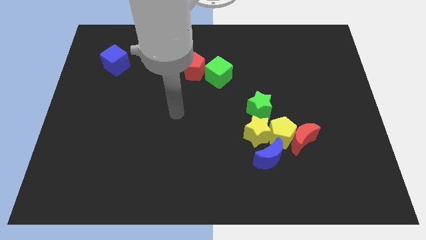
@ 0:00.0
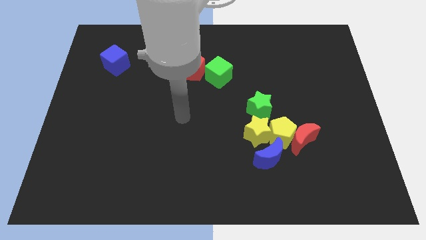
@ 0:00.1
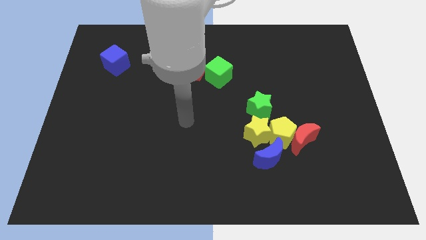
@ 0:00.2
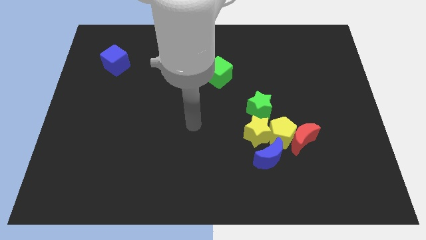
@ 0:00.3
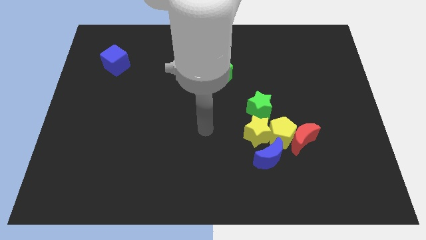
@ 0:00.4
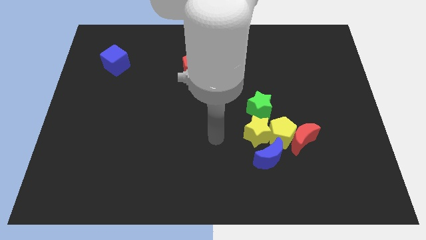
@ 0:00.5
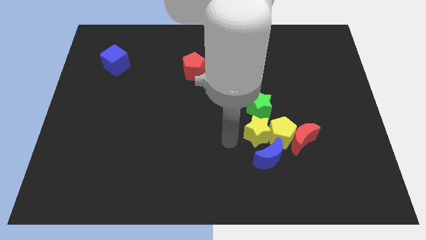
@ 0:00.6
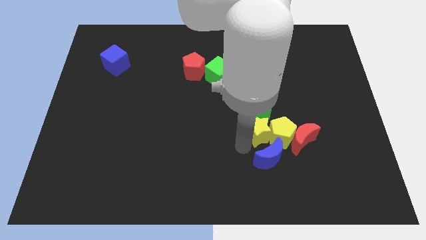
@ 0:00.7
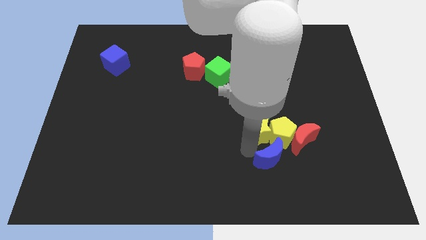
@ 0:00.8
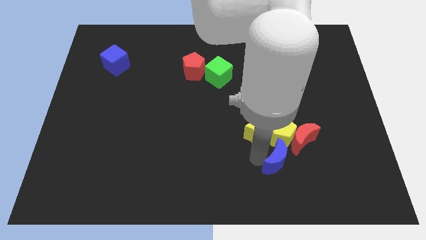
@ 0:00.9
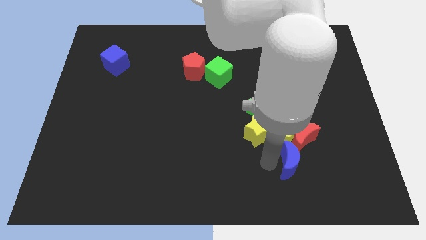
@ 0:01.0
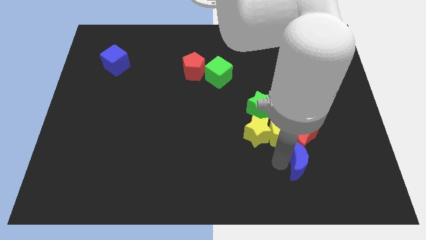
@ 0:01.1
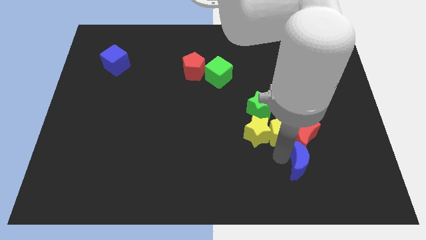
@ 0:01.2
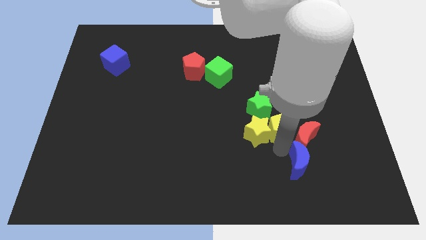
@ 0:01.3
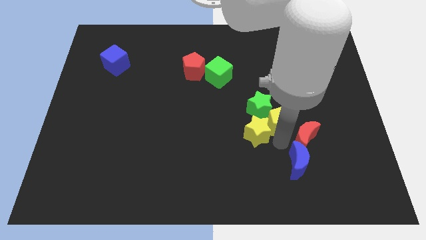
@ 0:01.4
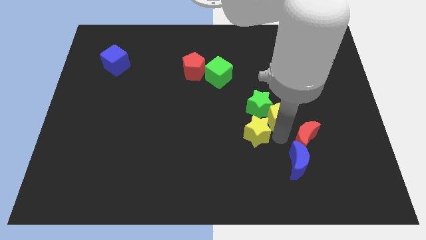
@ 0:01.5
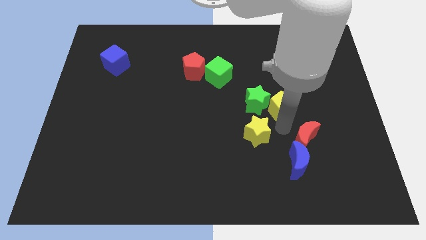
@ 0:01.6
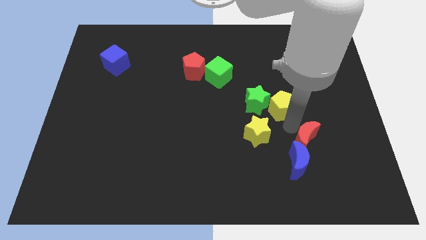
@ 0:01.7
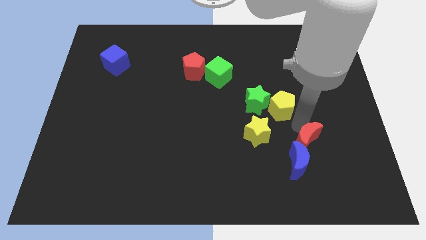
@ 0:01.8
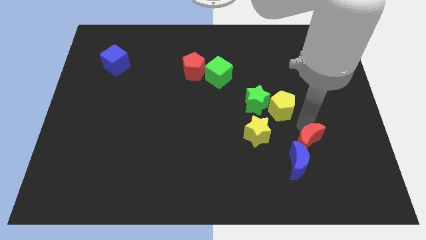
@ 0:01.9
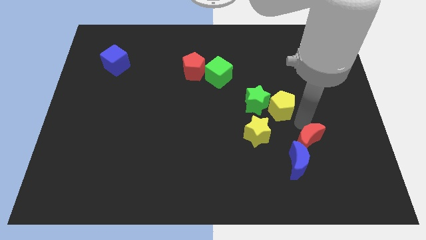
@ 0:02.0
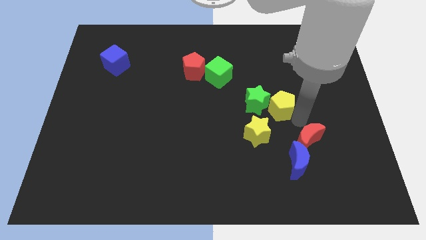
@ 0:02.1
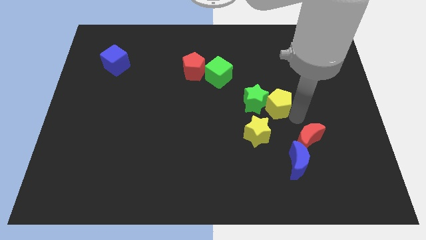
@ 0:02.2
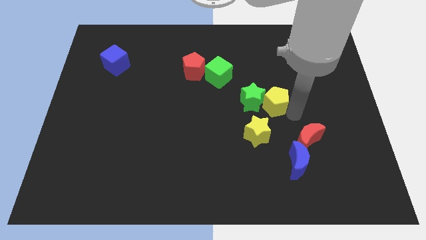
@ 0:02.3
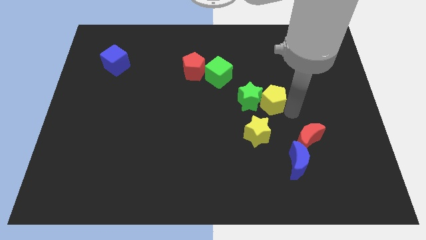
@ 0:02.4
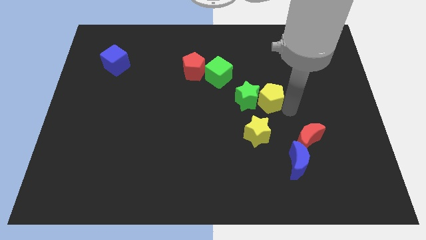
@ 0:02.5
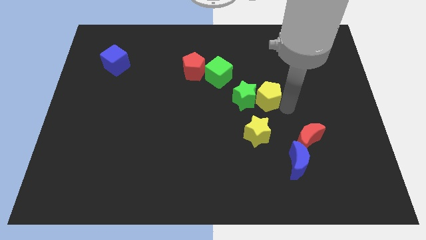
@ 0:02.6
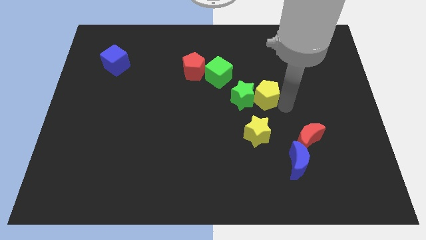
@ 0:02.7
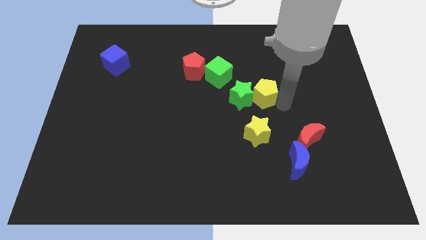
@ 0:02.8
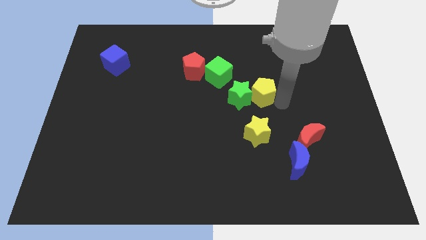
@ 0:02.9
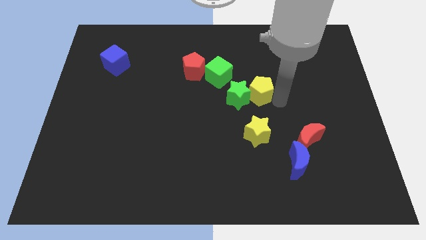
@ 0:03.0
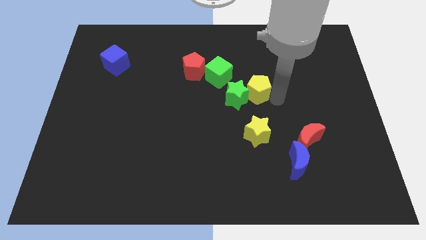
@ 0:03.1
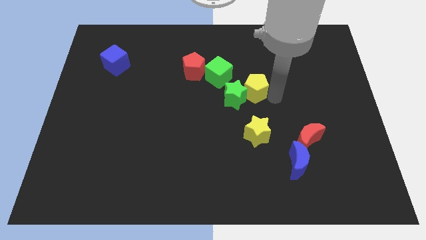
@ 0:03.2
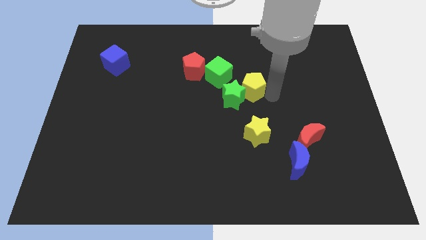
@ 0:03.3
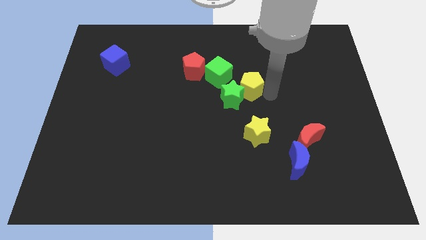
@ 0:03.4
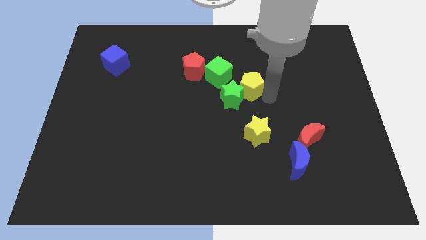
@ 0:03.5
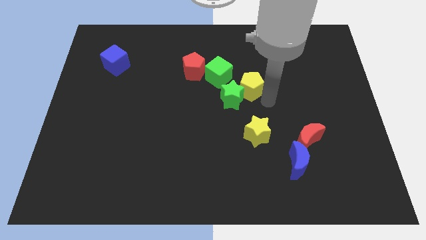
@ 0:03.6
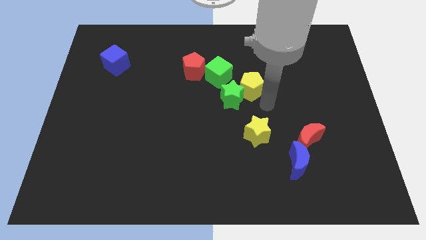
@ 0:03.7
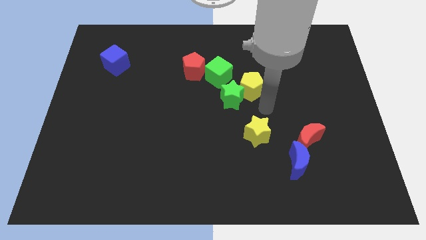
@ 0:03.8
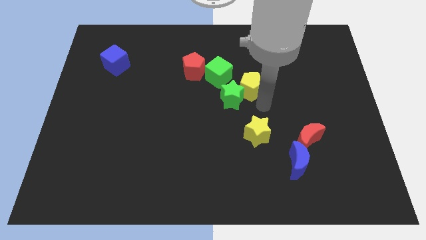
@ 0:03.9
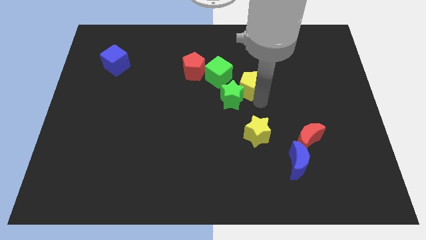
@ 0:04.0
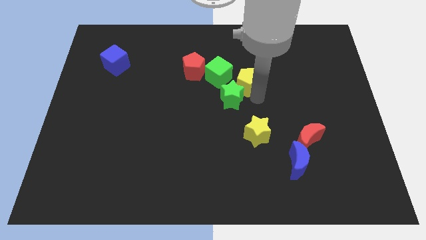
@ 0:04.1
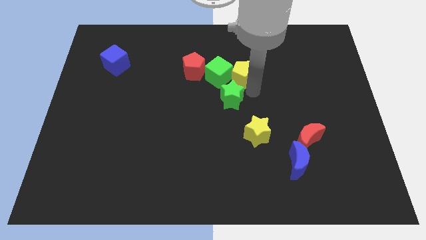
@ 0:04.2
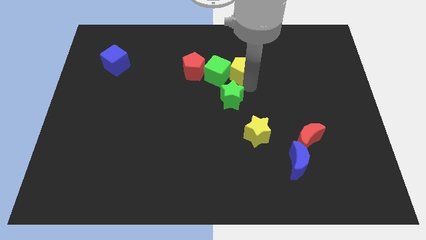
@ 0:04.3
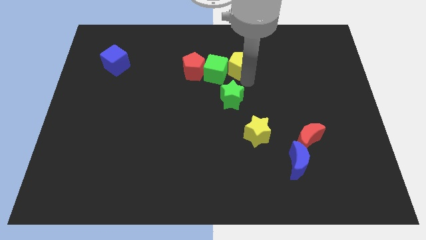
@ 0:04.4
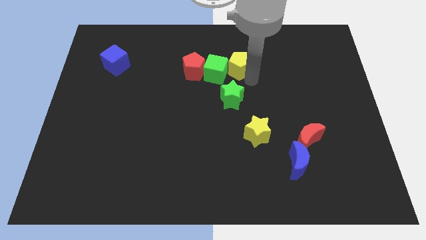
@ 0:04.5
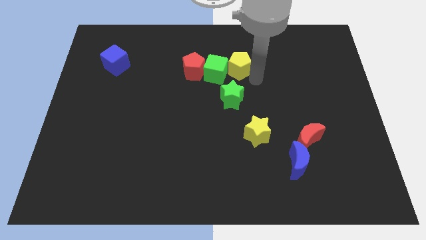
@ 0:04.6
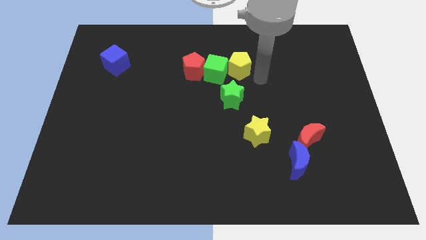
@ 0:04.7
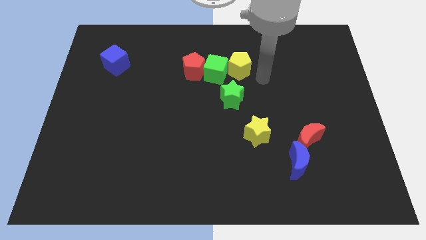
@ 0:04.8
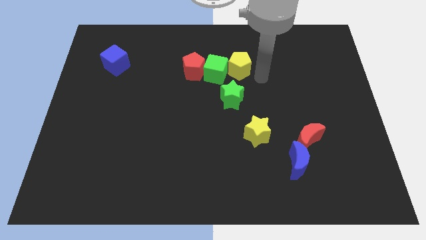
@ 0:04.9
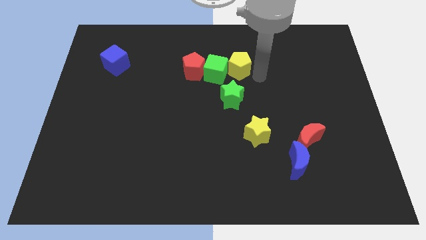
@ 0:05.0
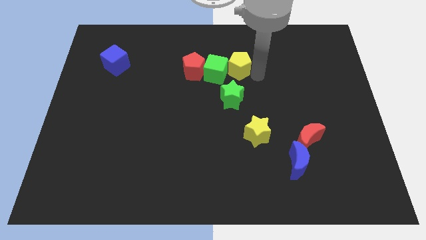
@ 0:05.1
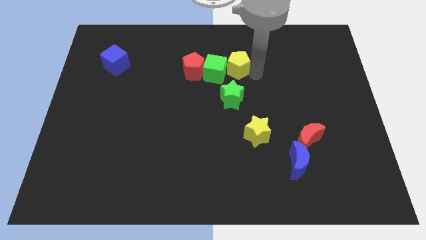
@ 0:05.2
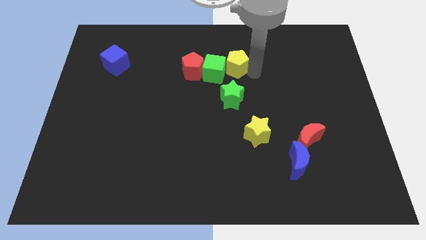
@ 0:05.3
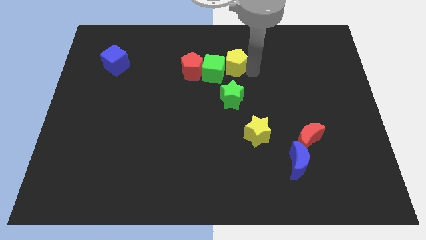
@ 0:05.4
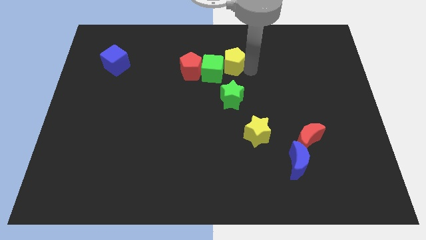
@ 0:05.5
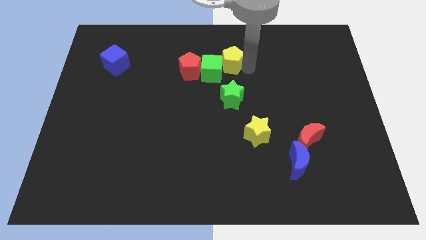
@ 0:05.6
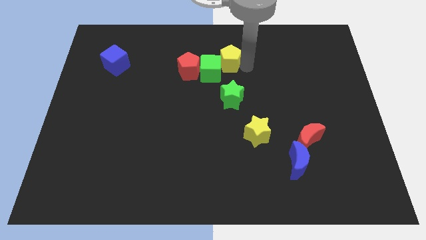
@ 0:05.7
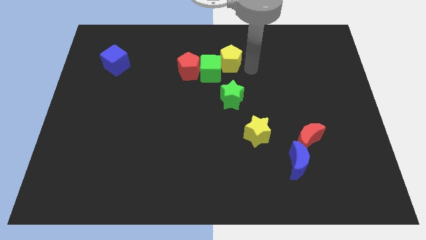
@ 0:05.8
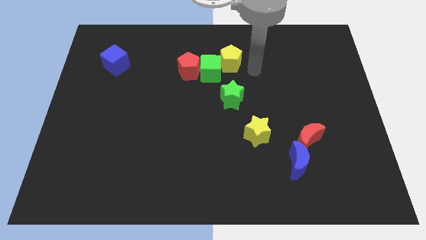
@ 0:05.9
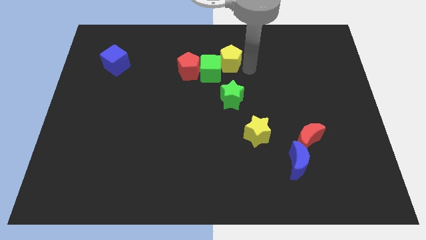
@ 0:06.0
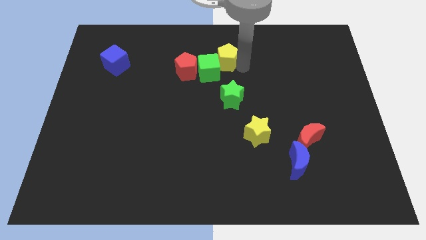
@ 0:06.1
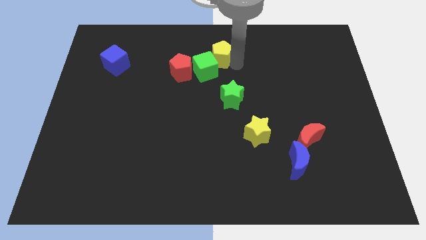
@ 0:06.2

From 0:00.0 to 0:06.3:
move the yellow pentagon to the top right of the red pentagon

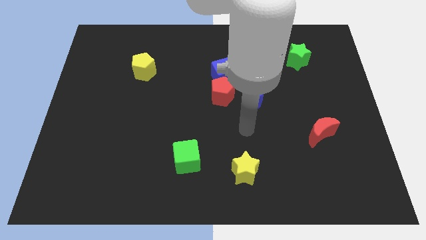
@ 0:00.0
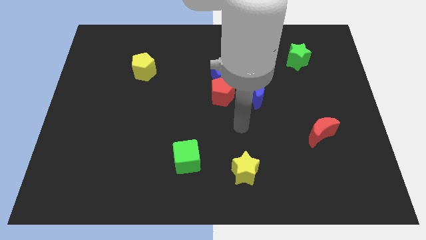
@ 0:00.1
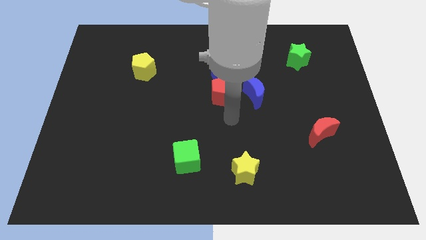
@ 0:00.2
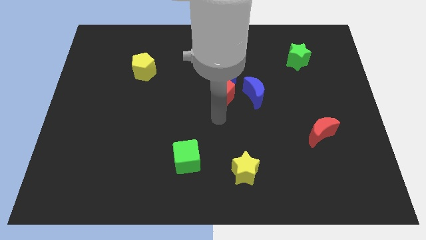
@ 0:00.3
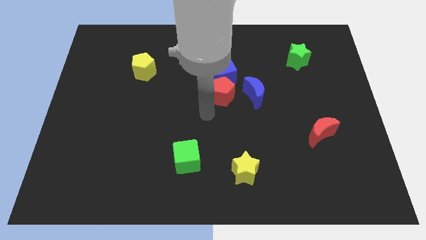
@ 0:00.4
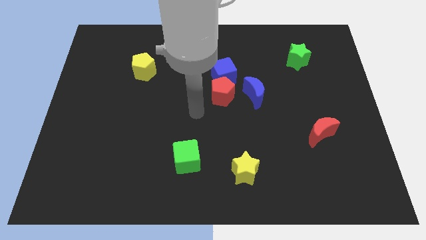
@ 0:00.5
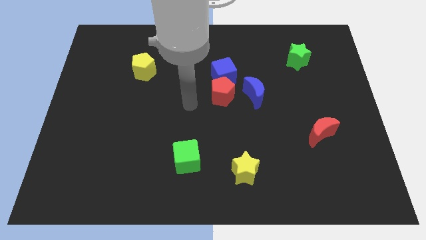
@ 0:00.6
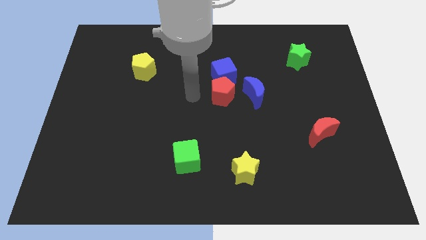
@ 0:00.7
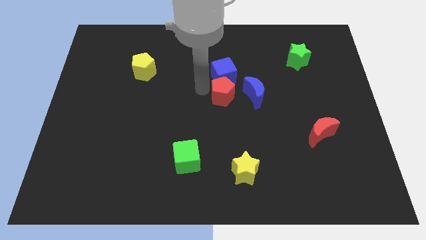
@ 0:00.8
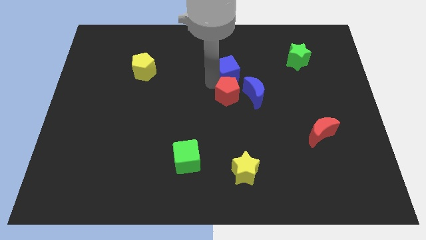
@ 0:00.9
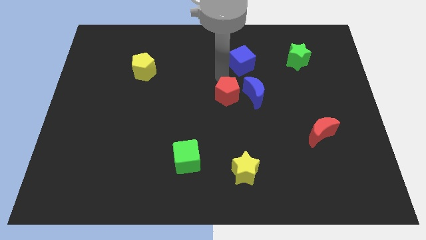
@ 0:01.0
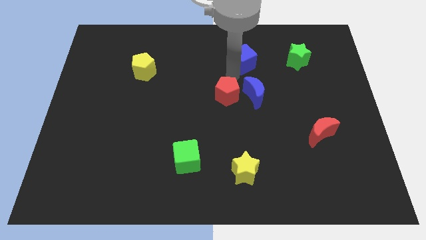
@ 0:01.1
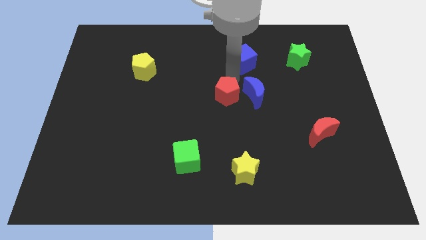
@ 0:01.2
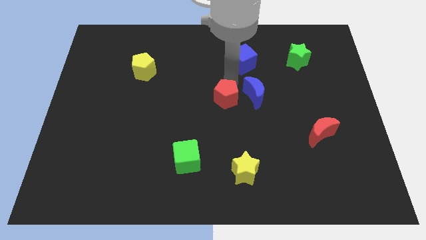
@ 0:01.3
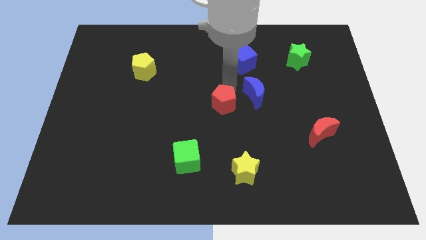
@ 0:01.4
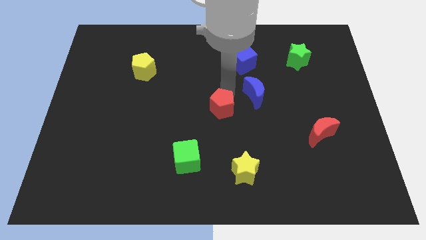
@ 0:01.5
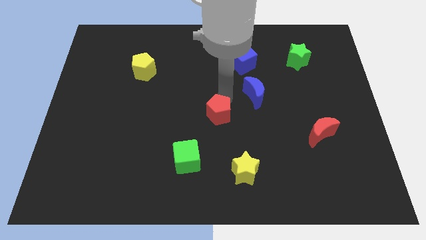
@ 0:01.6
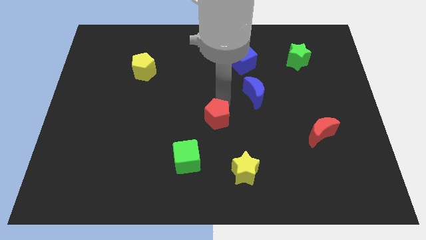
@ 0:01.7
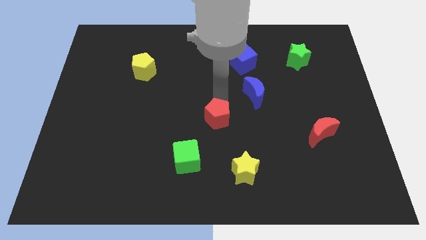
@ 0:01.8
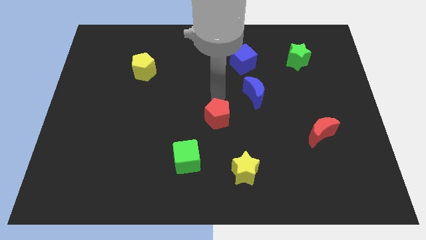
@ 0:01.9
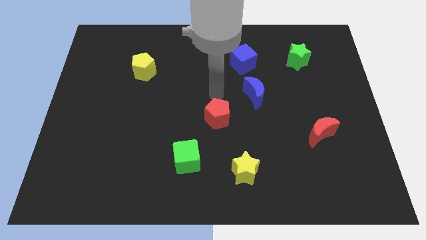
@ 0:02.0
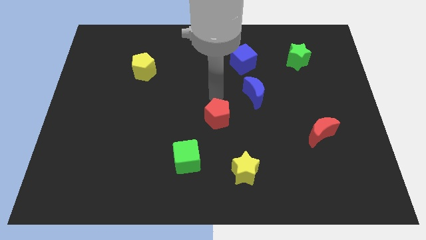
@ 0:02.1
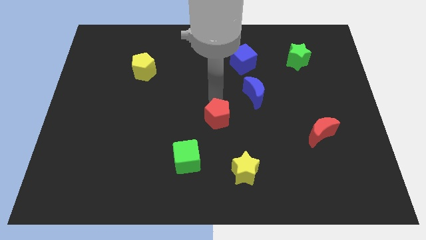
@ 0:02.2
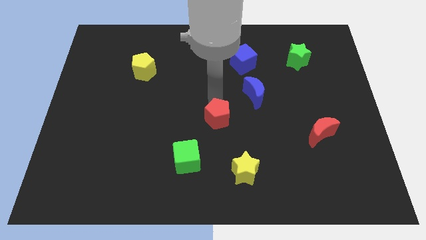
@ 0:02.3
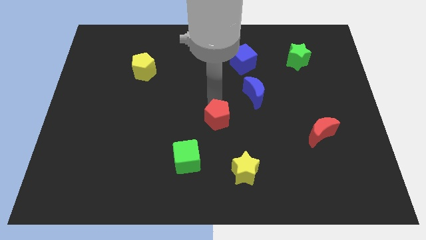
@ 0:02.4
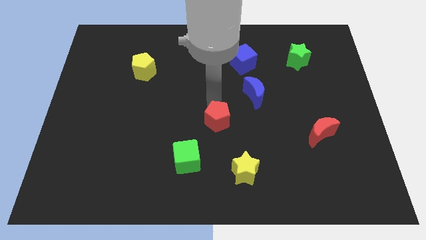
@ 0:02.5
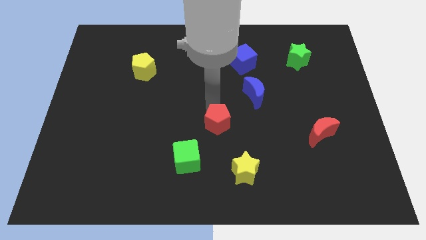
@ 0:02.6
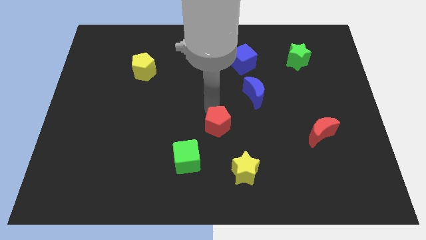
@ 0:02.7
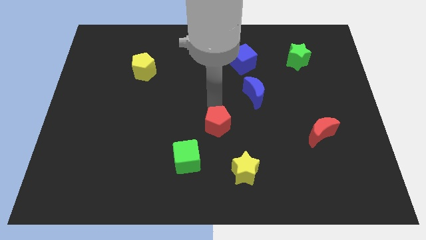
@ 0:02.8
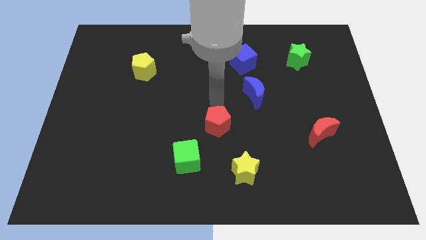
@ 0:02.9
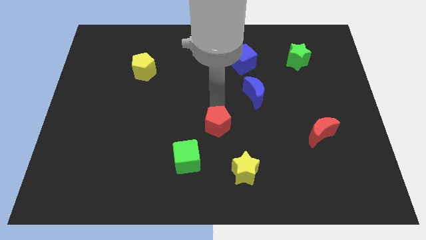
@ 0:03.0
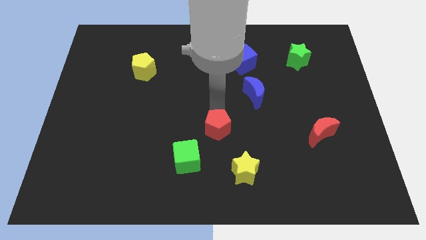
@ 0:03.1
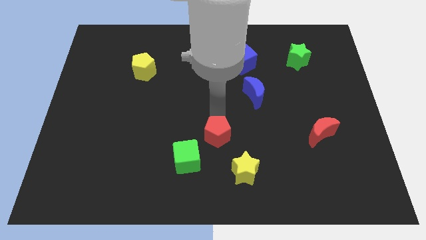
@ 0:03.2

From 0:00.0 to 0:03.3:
put the red pentagon diagonally up and to the left of the yellow star
